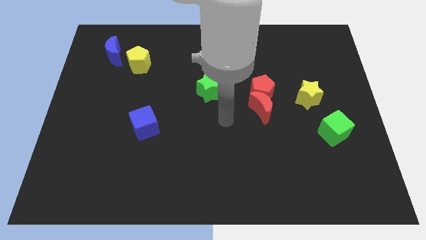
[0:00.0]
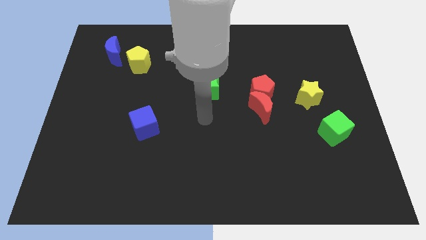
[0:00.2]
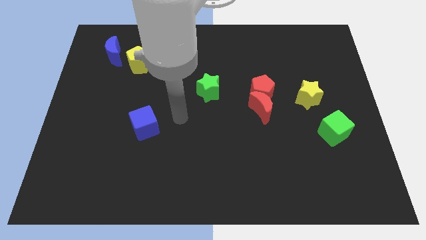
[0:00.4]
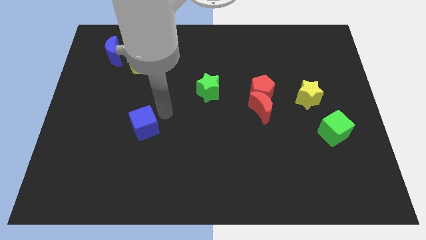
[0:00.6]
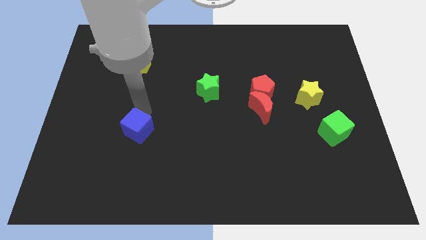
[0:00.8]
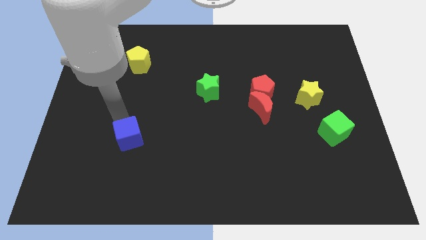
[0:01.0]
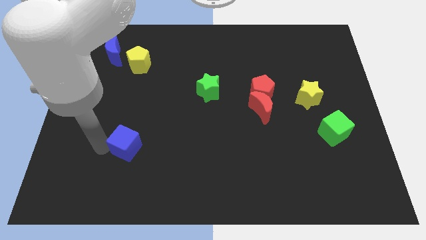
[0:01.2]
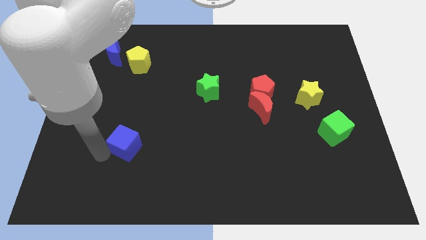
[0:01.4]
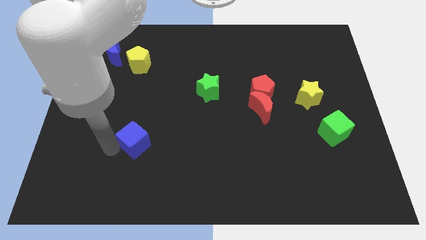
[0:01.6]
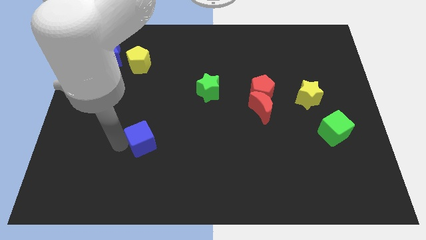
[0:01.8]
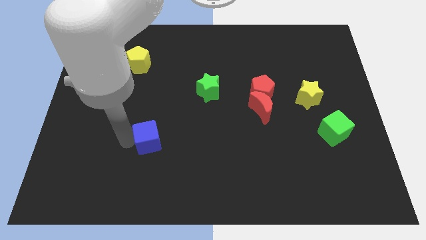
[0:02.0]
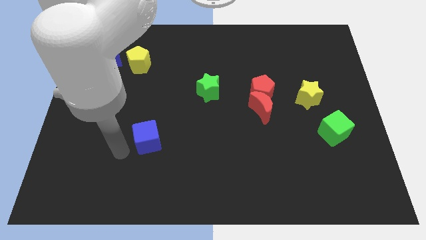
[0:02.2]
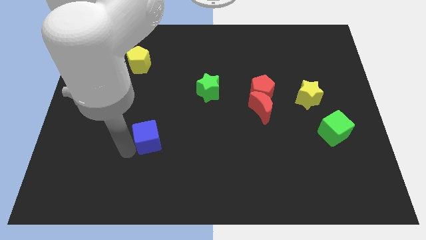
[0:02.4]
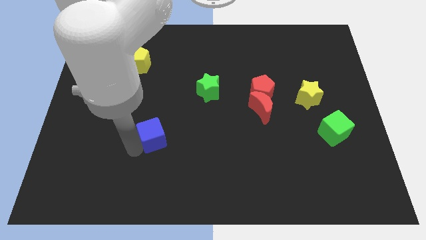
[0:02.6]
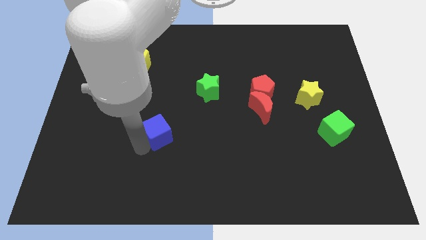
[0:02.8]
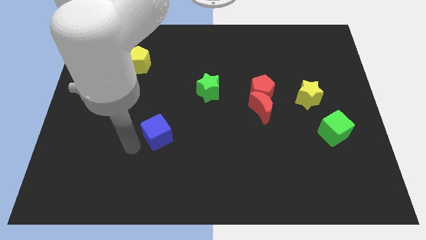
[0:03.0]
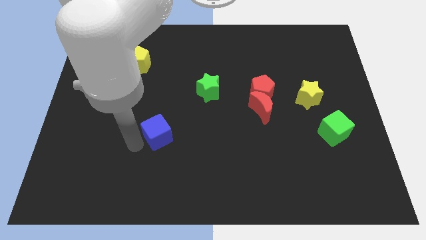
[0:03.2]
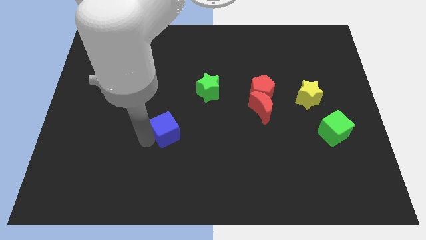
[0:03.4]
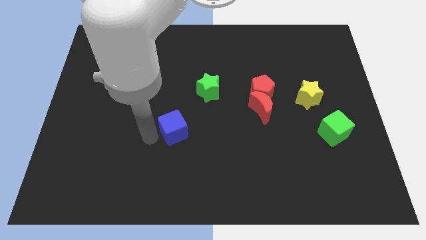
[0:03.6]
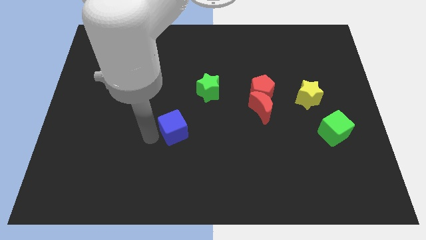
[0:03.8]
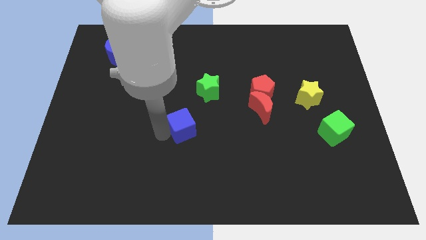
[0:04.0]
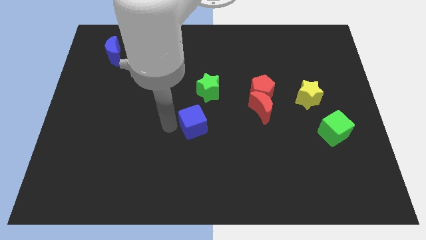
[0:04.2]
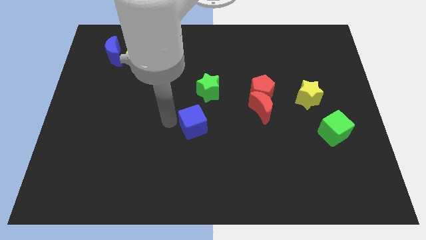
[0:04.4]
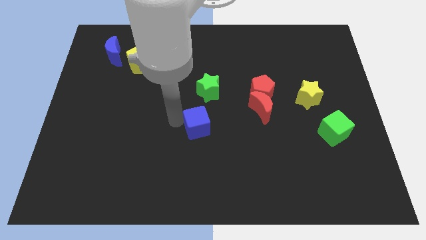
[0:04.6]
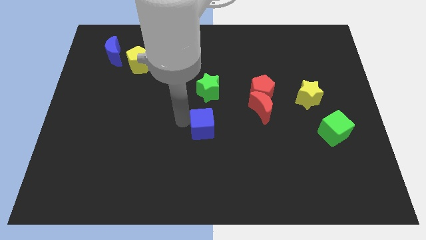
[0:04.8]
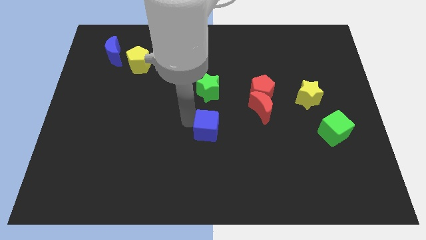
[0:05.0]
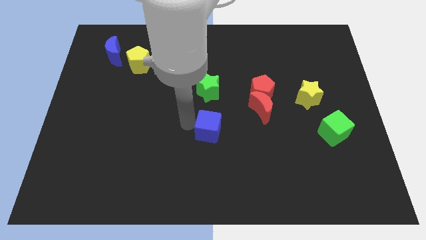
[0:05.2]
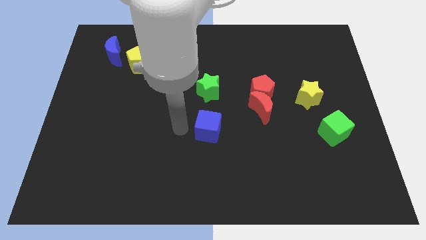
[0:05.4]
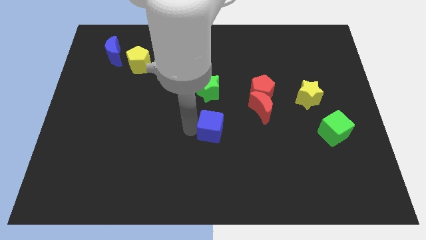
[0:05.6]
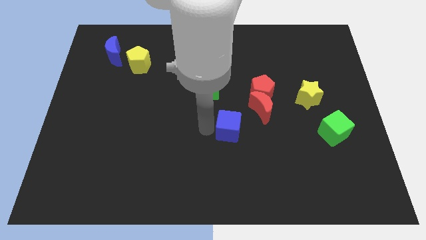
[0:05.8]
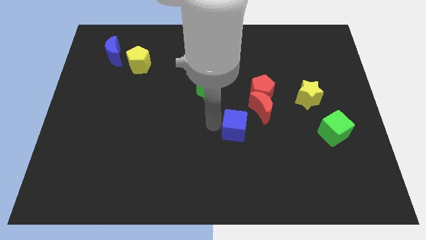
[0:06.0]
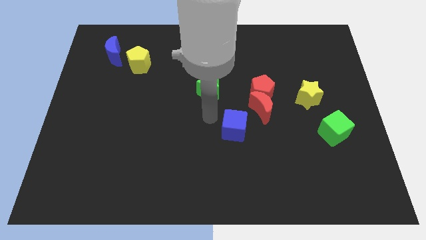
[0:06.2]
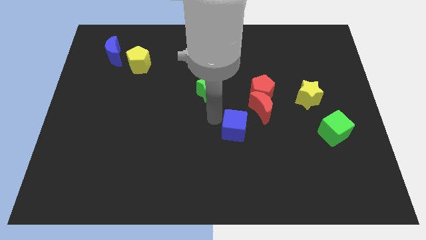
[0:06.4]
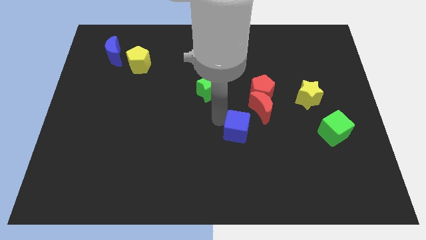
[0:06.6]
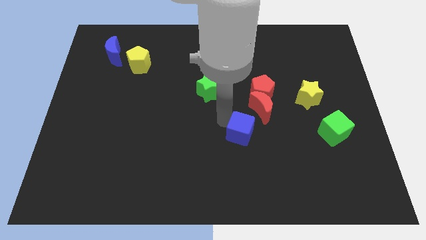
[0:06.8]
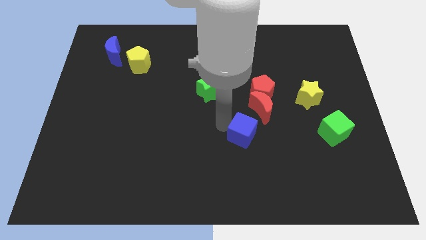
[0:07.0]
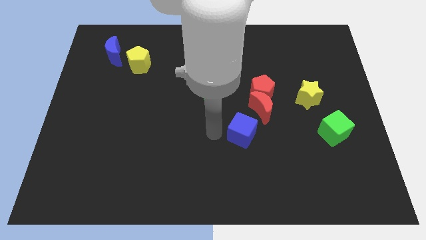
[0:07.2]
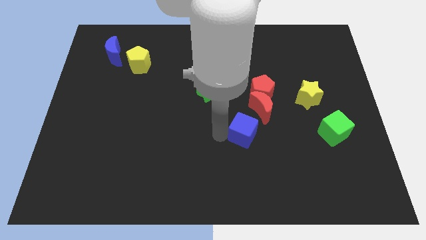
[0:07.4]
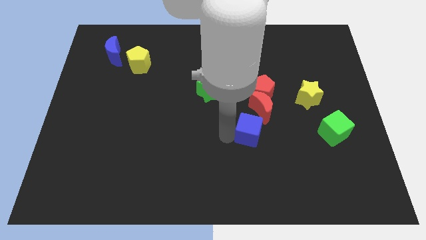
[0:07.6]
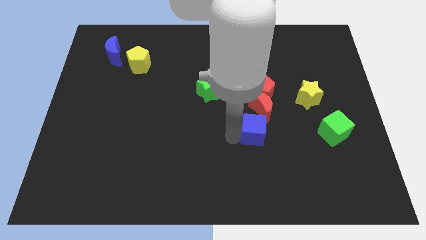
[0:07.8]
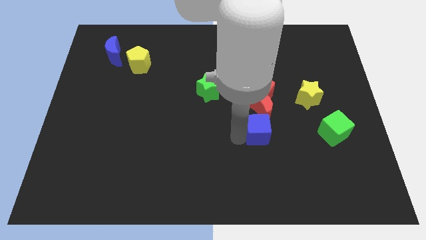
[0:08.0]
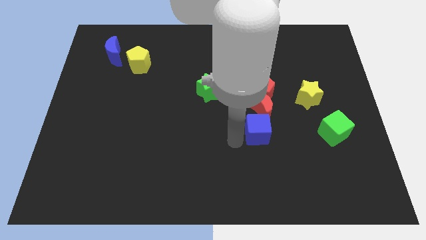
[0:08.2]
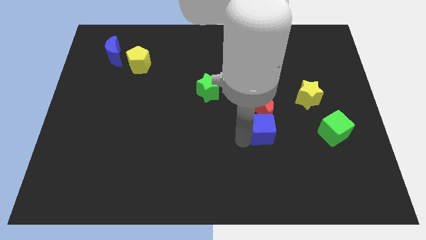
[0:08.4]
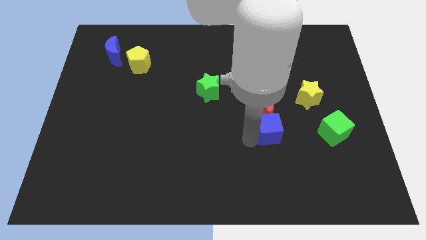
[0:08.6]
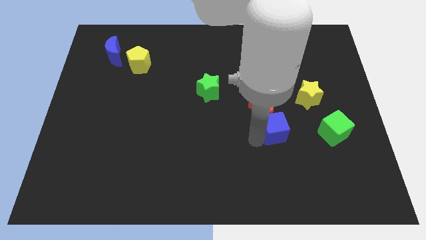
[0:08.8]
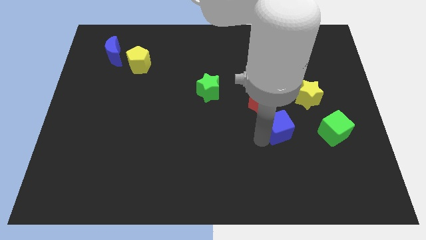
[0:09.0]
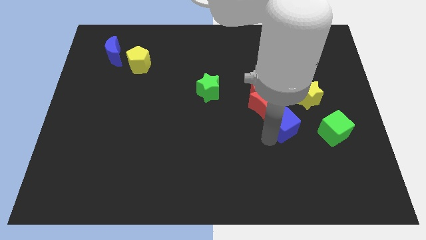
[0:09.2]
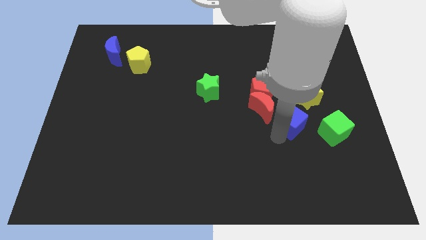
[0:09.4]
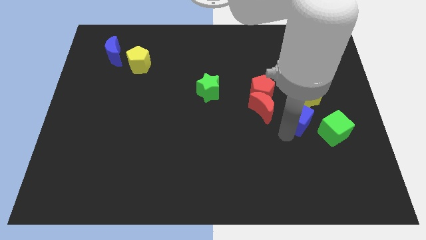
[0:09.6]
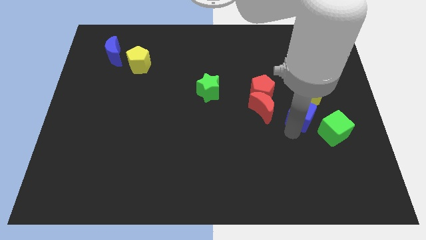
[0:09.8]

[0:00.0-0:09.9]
put the blue cube to the yellow star

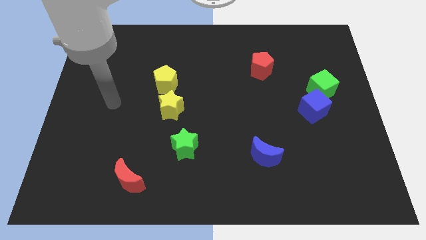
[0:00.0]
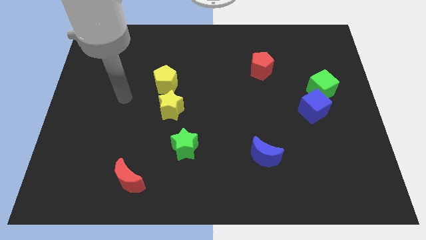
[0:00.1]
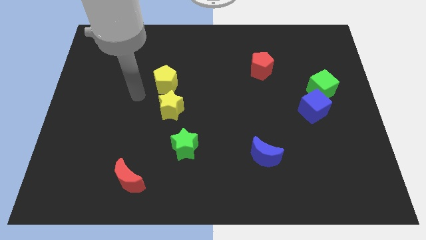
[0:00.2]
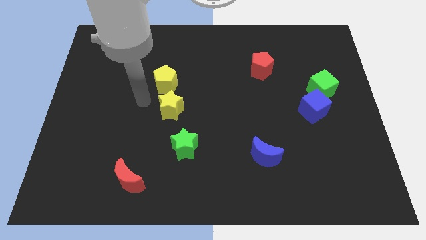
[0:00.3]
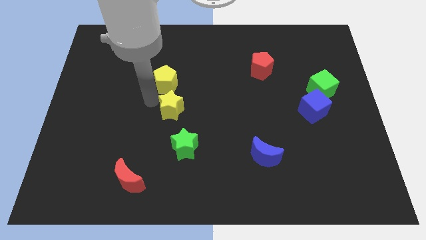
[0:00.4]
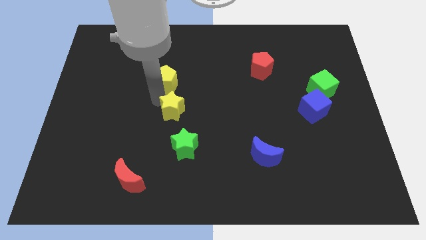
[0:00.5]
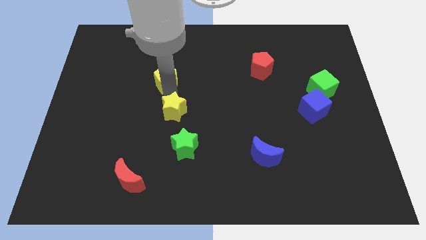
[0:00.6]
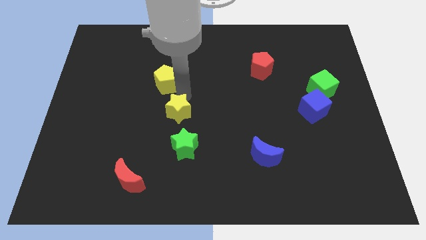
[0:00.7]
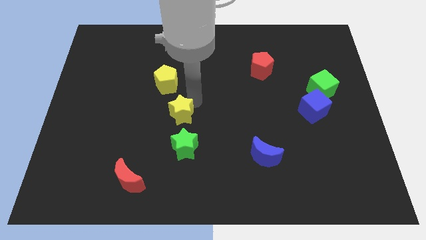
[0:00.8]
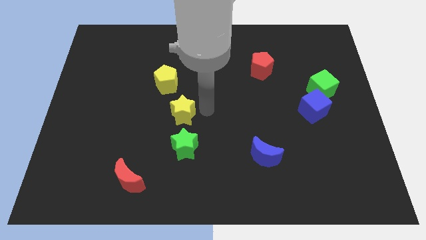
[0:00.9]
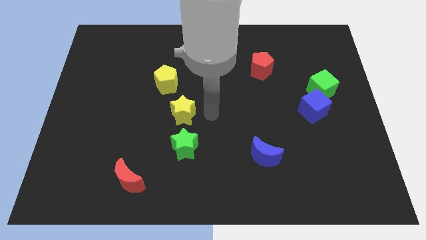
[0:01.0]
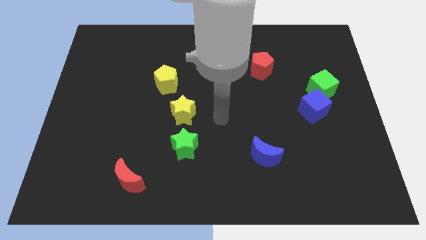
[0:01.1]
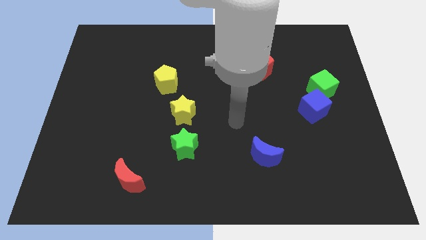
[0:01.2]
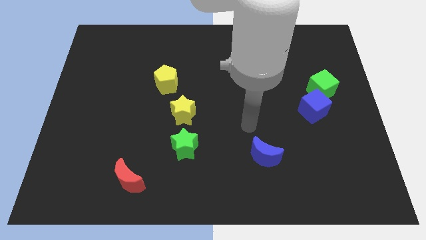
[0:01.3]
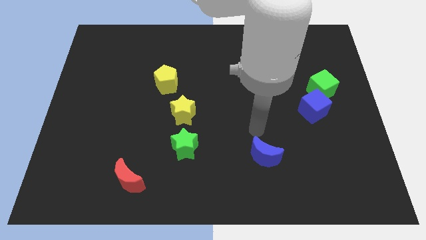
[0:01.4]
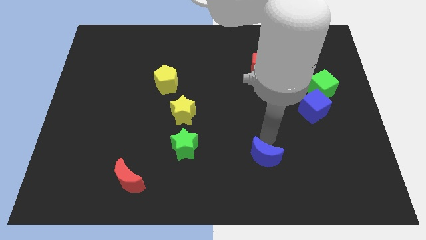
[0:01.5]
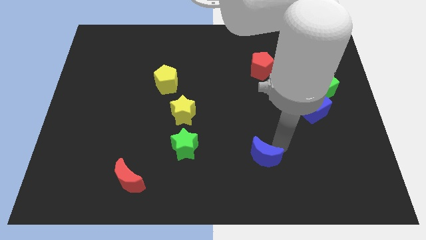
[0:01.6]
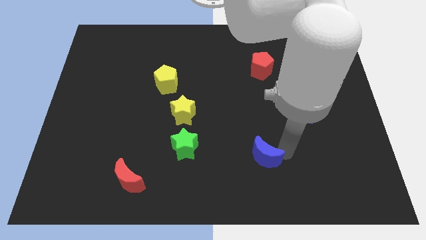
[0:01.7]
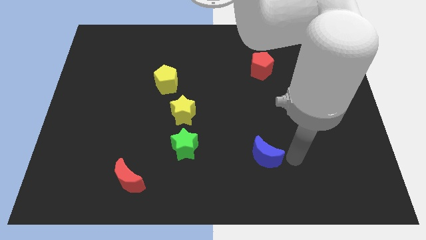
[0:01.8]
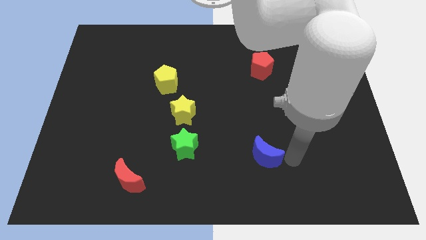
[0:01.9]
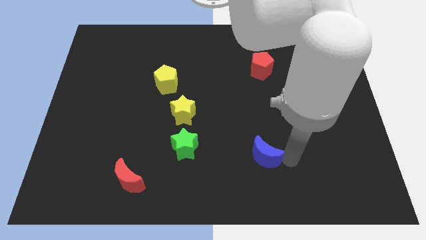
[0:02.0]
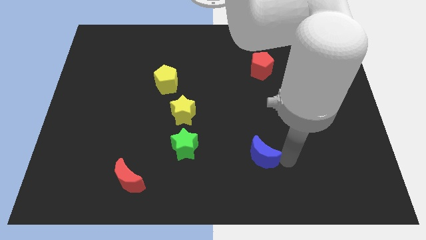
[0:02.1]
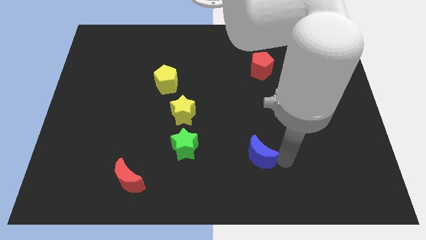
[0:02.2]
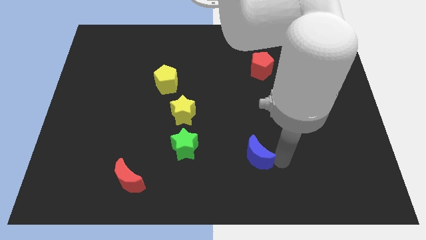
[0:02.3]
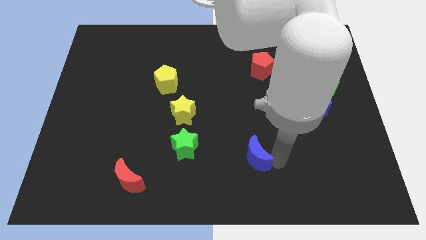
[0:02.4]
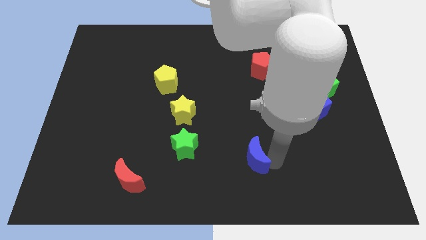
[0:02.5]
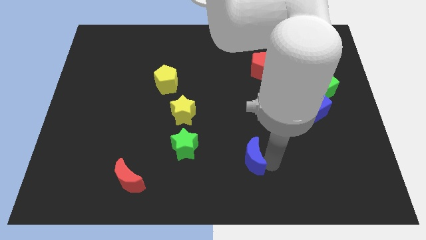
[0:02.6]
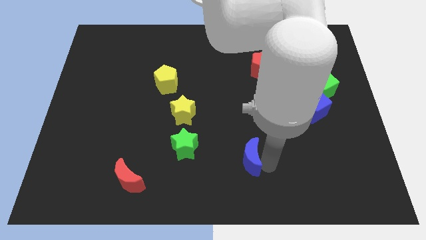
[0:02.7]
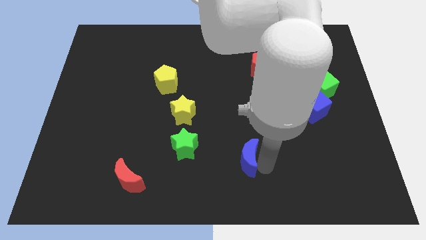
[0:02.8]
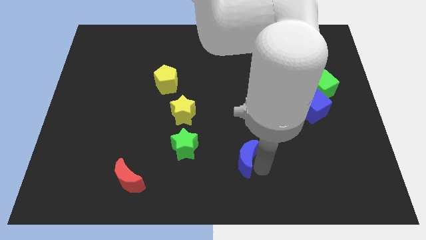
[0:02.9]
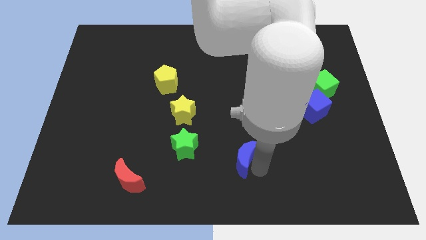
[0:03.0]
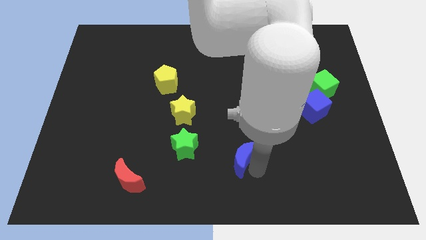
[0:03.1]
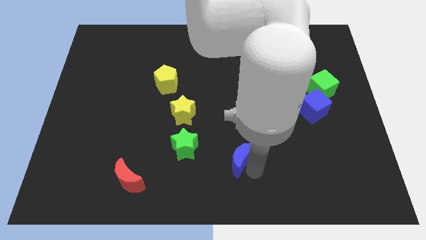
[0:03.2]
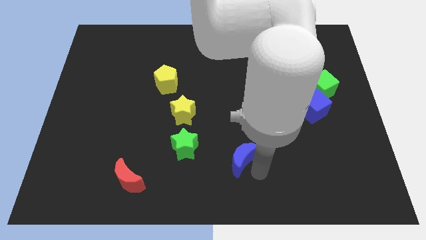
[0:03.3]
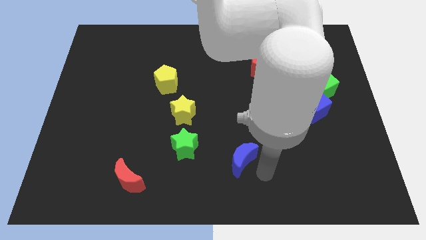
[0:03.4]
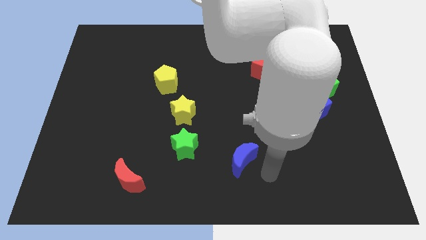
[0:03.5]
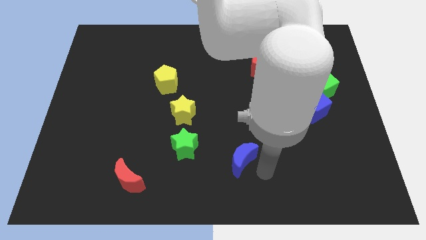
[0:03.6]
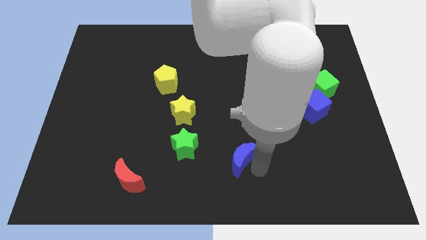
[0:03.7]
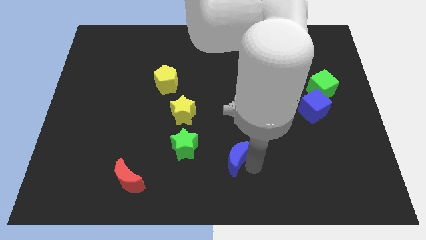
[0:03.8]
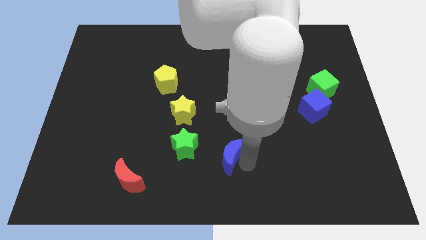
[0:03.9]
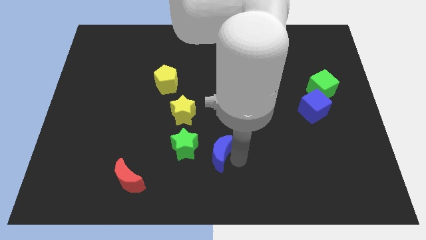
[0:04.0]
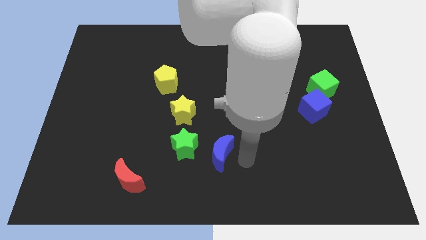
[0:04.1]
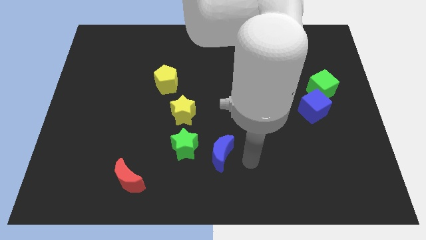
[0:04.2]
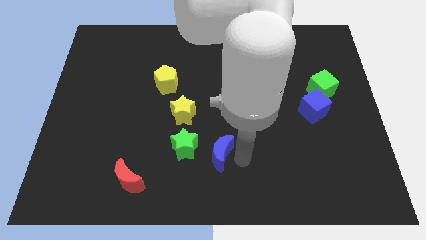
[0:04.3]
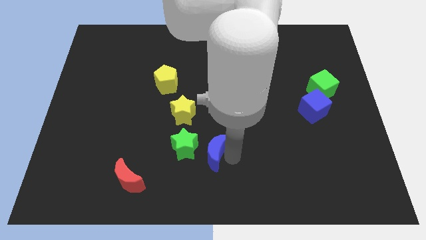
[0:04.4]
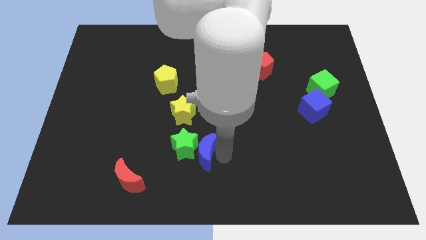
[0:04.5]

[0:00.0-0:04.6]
put the blue moon next to the green star
